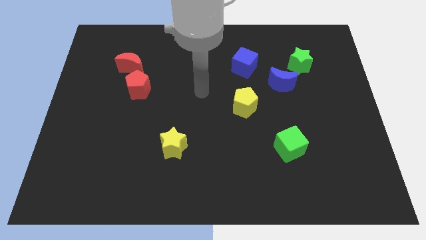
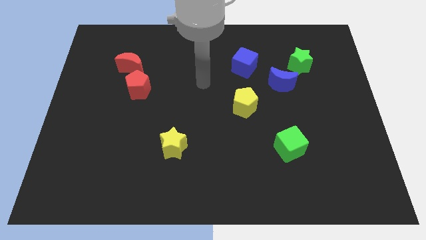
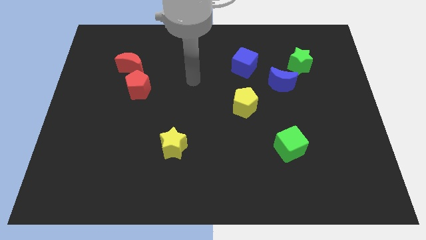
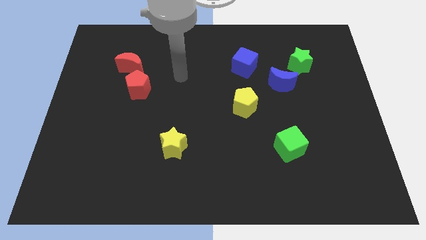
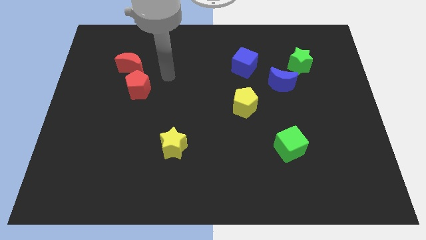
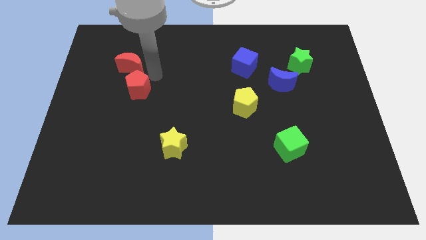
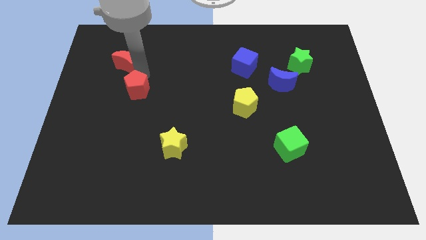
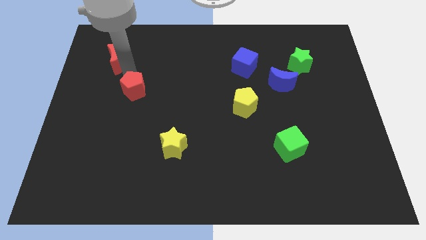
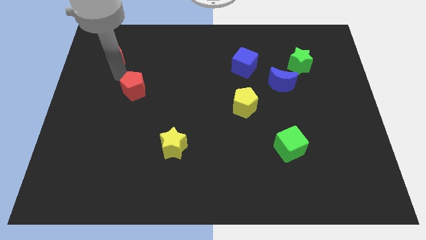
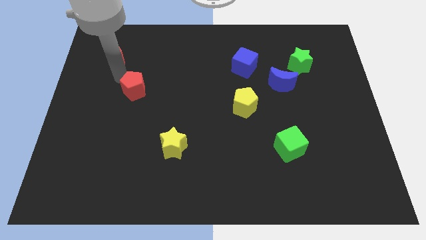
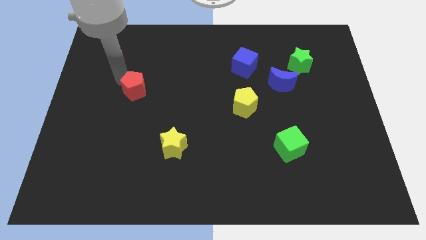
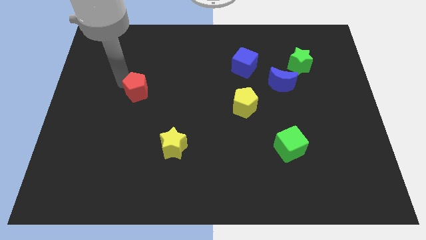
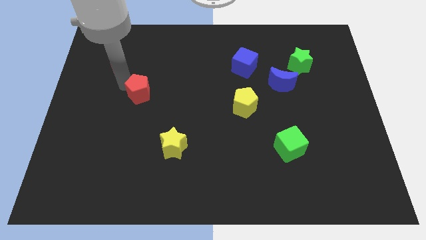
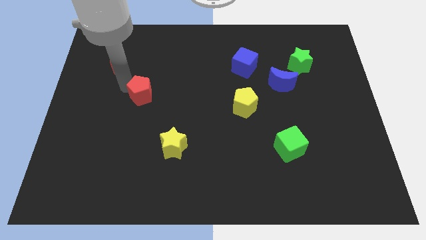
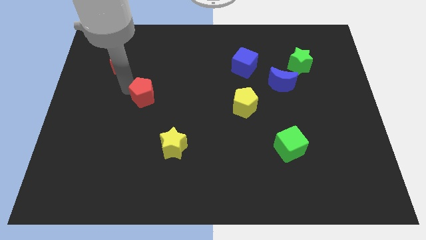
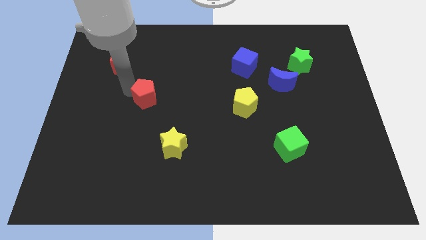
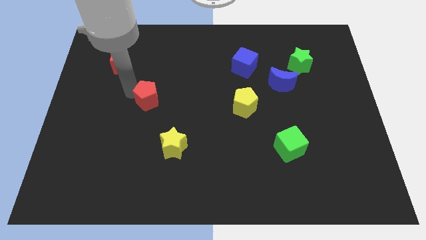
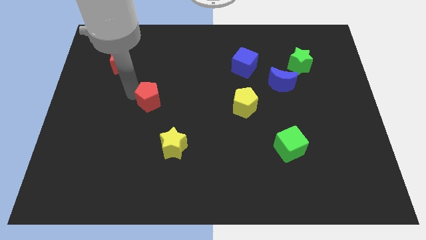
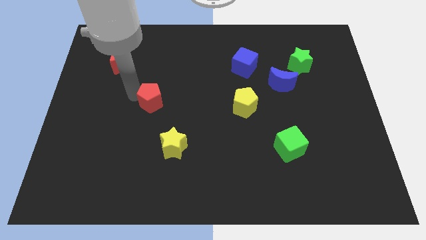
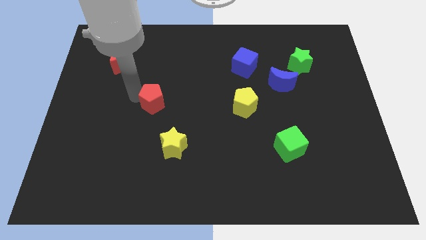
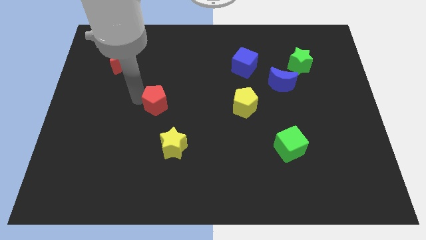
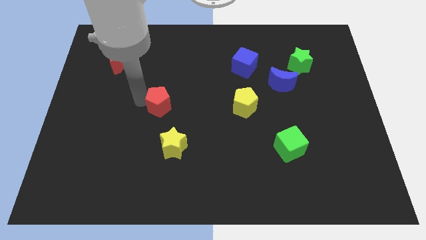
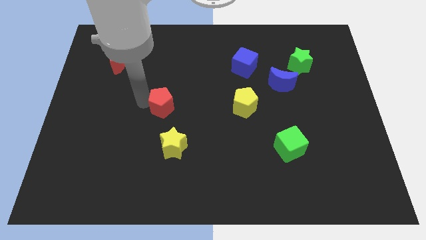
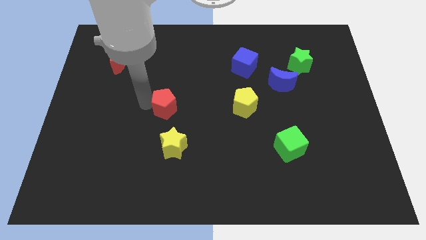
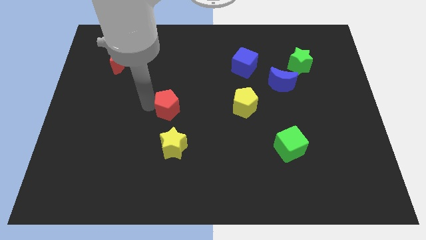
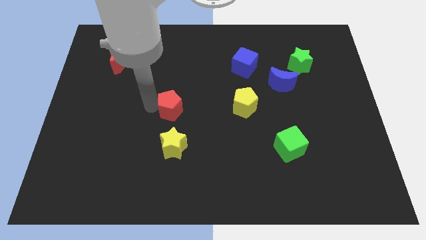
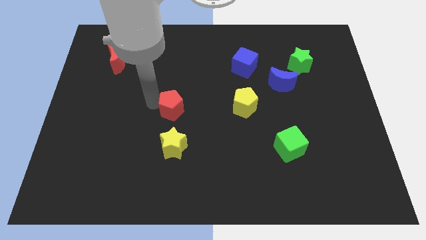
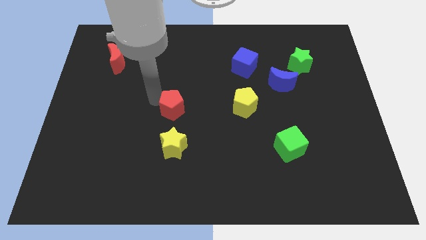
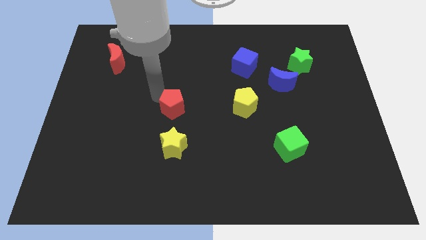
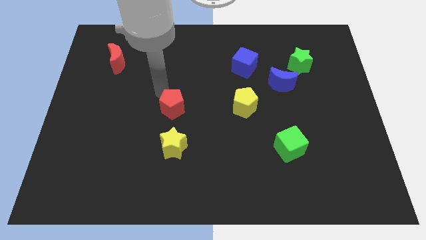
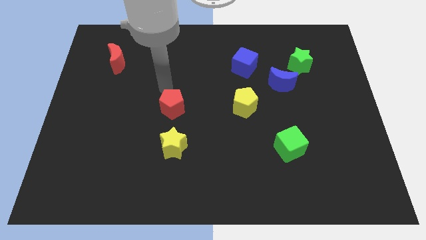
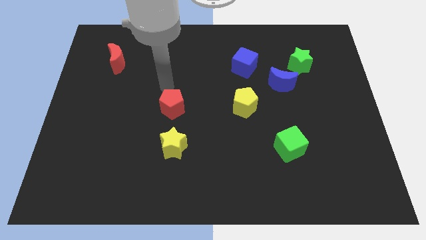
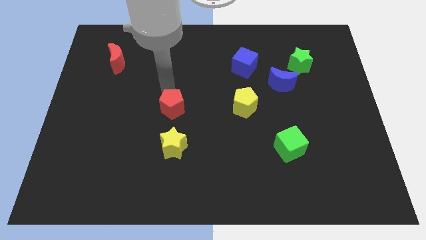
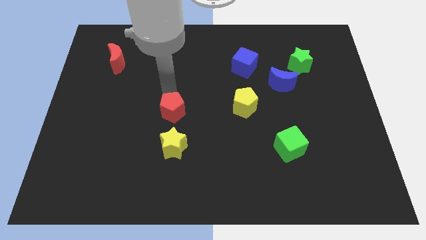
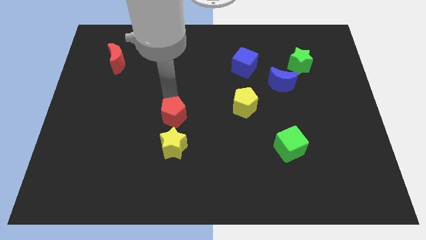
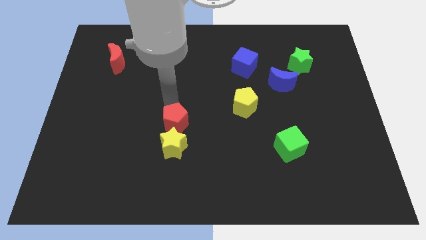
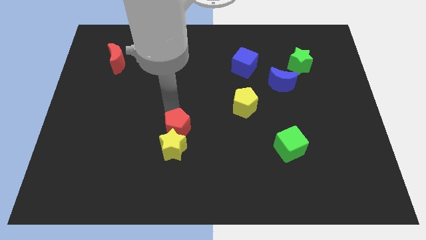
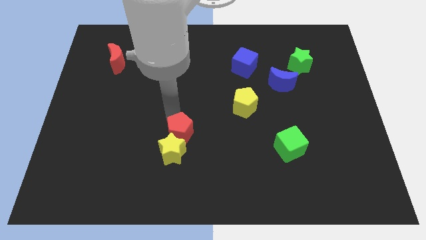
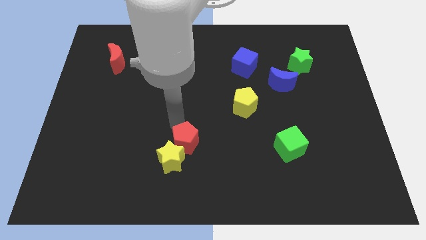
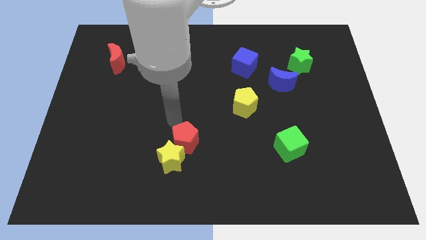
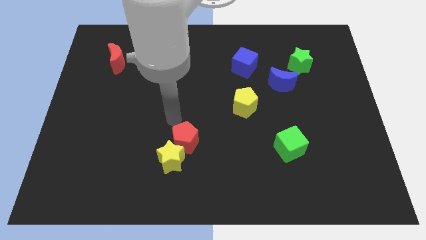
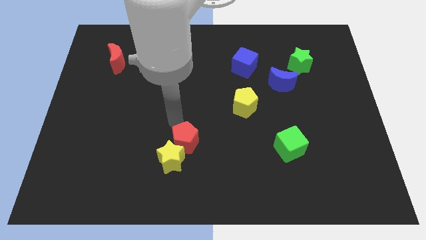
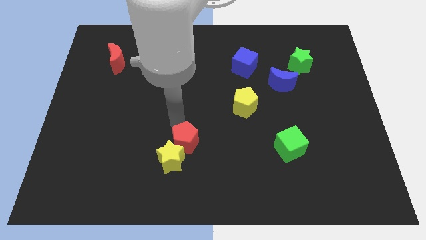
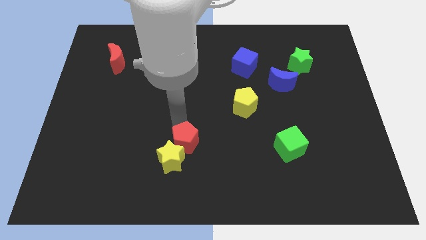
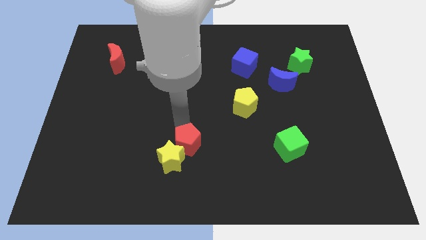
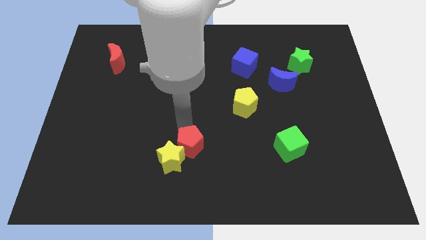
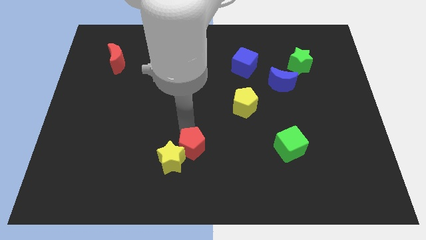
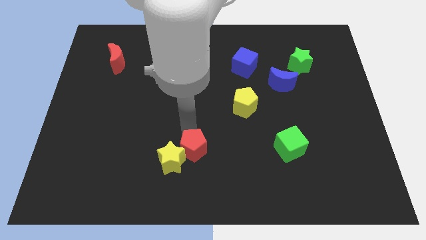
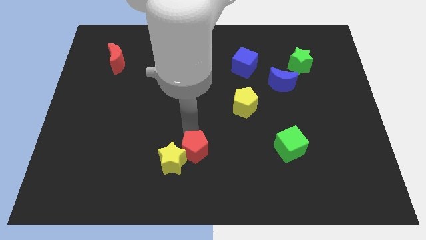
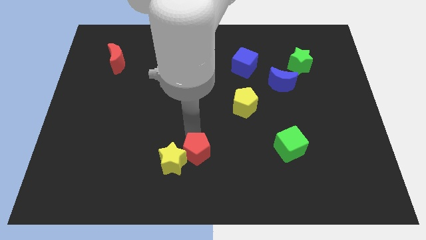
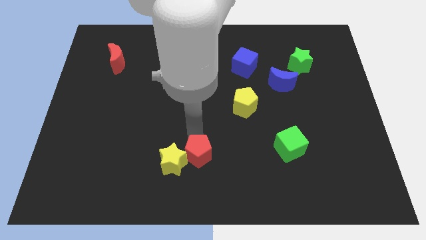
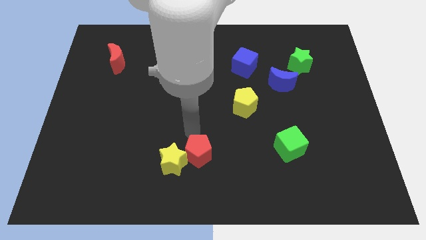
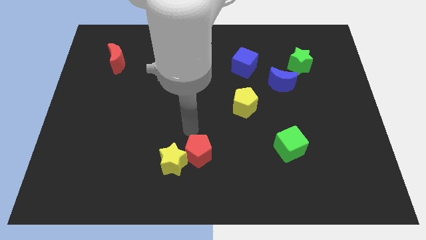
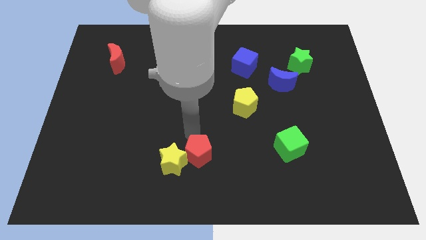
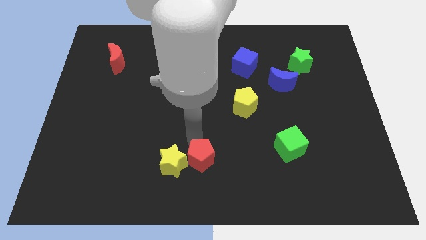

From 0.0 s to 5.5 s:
put the red pentagon to the bottom side
